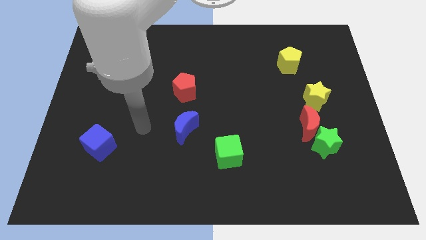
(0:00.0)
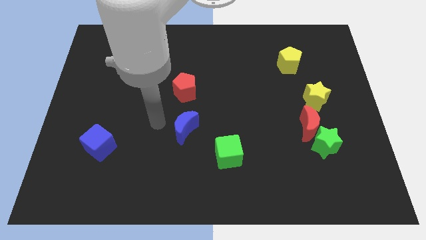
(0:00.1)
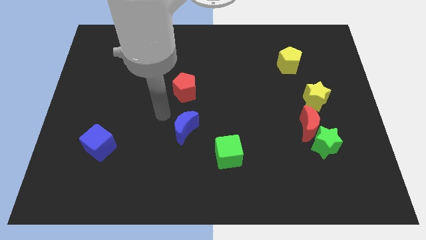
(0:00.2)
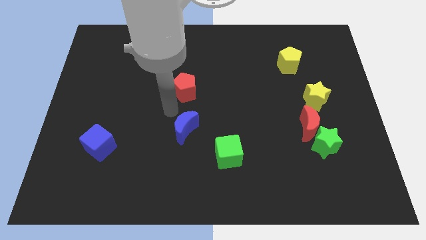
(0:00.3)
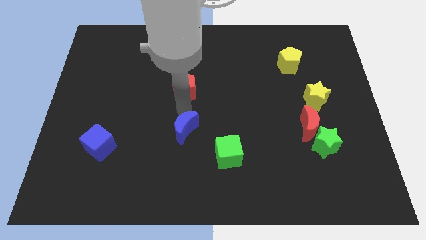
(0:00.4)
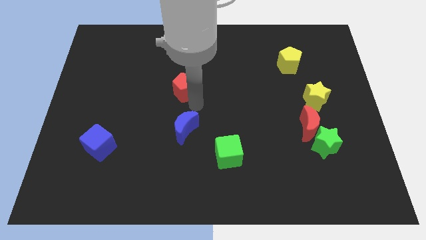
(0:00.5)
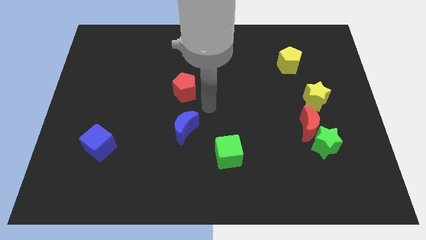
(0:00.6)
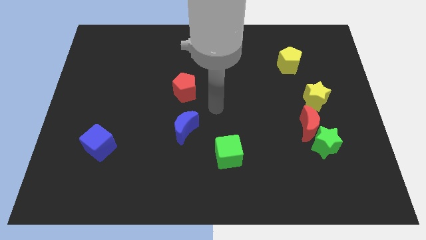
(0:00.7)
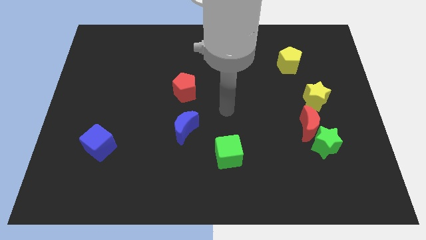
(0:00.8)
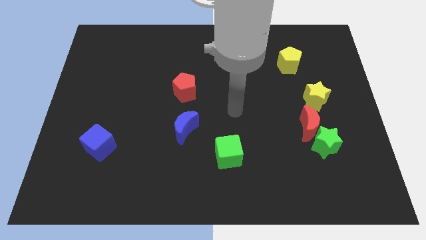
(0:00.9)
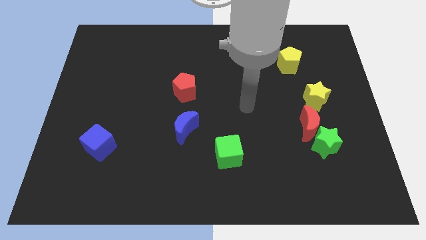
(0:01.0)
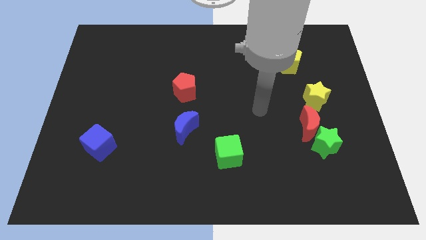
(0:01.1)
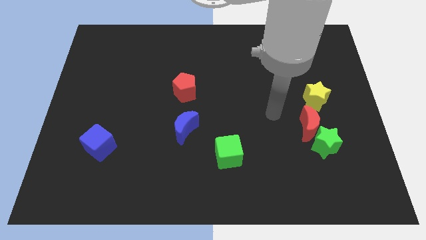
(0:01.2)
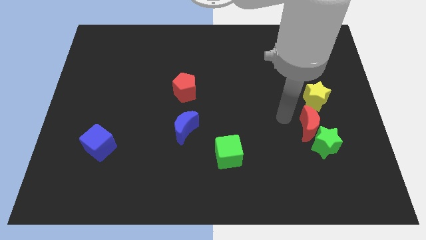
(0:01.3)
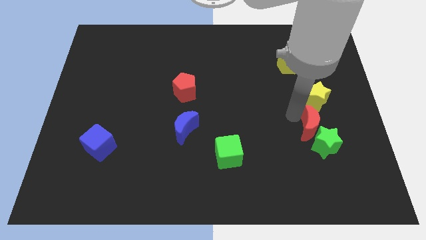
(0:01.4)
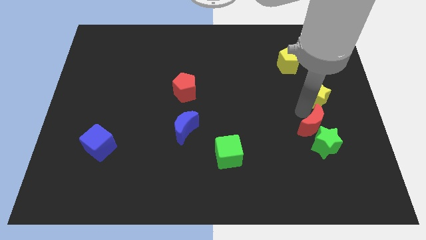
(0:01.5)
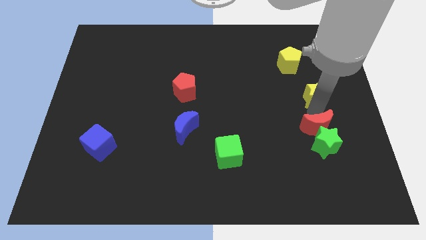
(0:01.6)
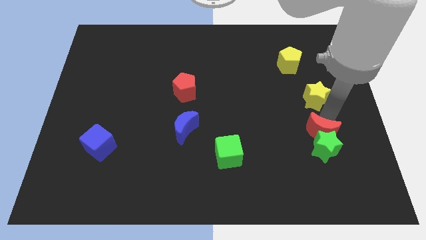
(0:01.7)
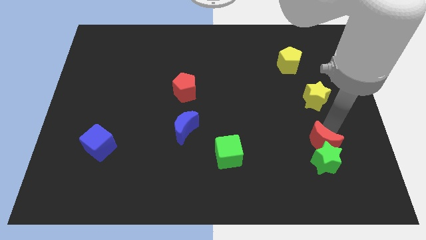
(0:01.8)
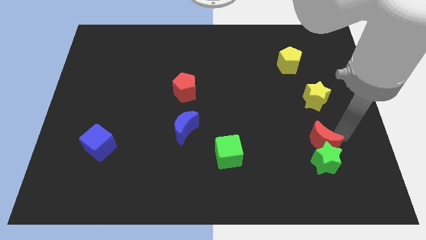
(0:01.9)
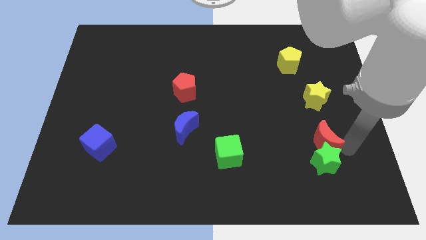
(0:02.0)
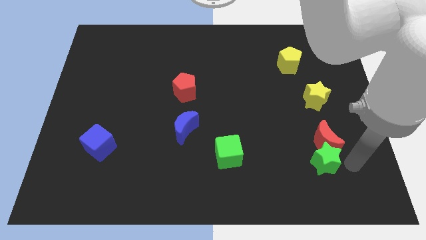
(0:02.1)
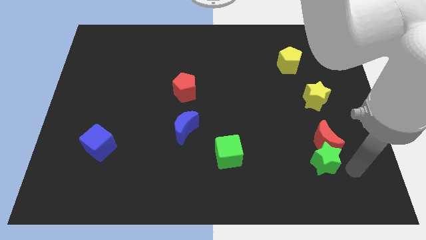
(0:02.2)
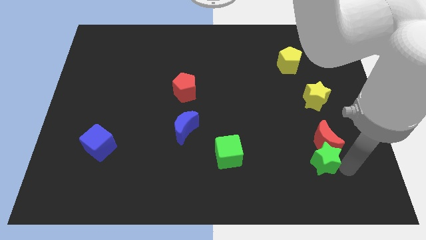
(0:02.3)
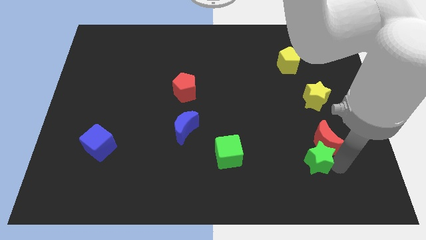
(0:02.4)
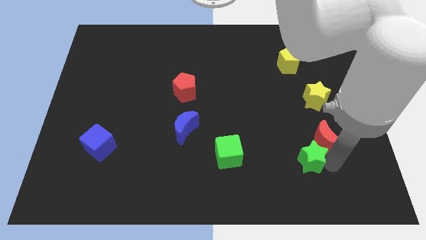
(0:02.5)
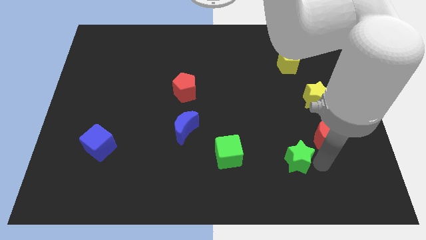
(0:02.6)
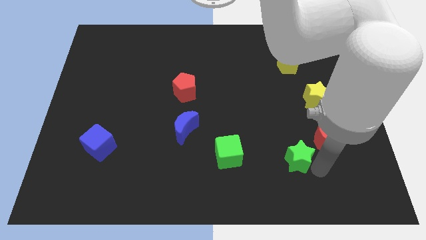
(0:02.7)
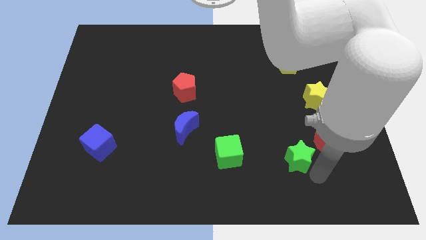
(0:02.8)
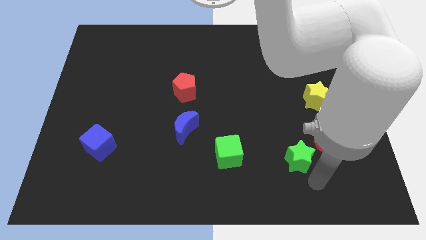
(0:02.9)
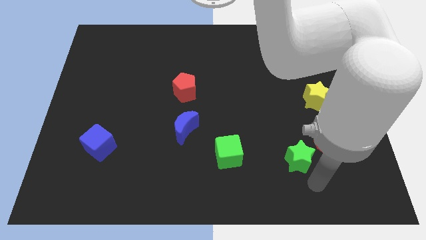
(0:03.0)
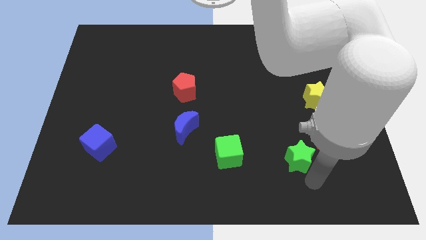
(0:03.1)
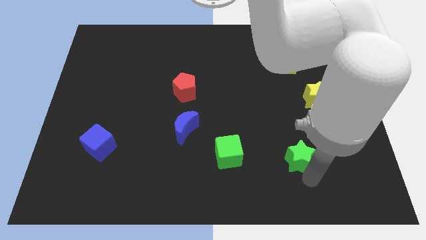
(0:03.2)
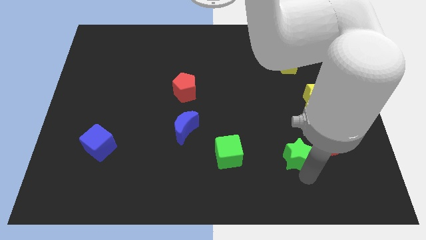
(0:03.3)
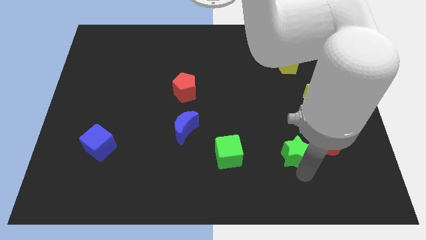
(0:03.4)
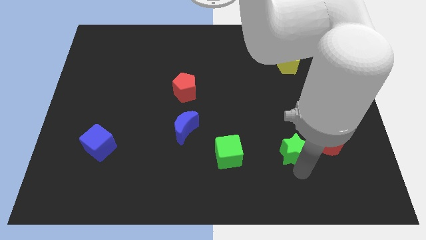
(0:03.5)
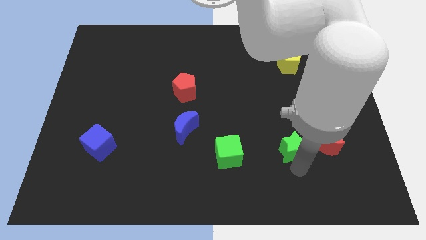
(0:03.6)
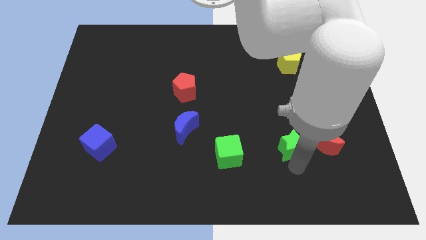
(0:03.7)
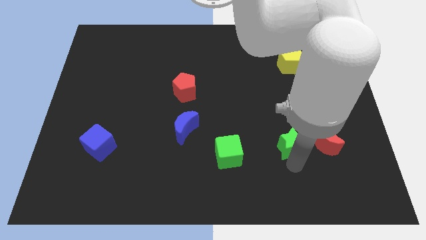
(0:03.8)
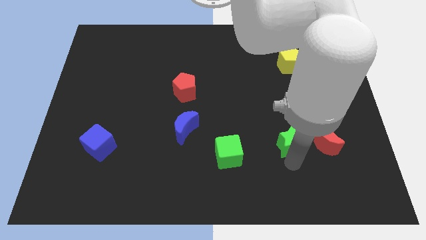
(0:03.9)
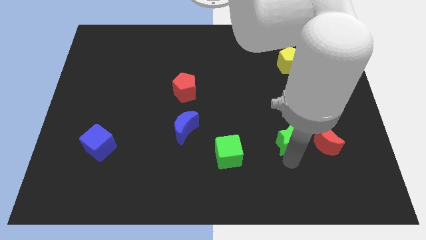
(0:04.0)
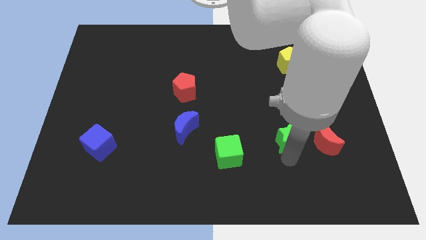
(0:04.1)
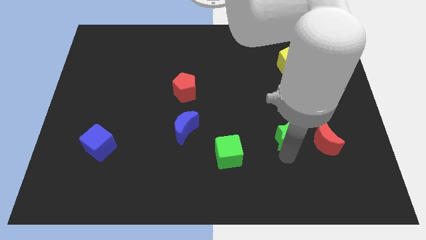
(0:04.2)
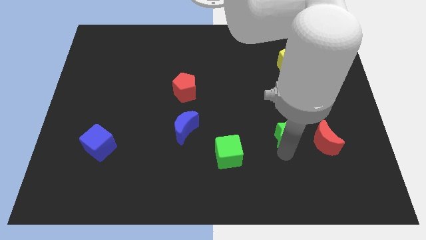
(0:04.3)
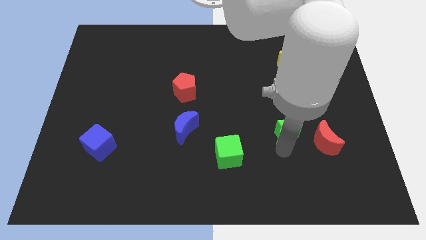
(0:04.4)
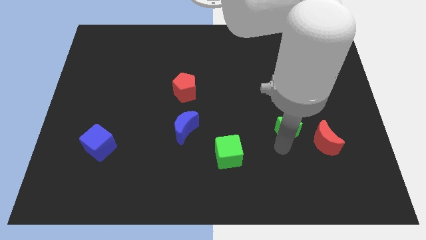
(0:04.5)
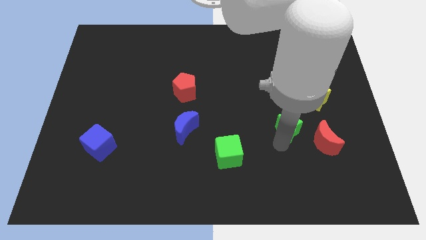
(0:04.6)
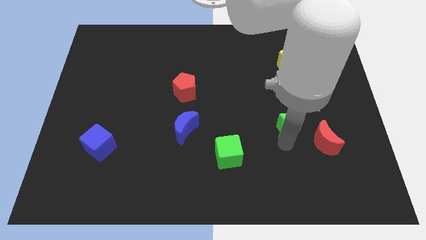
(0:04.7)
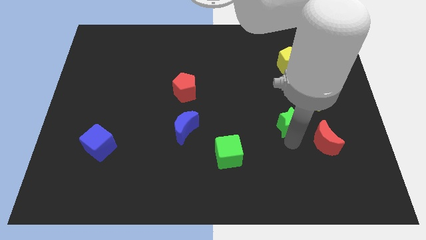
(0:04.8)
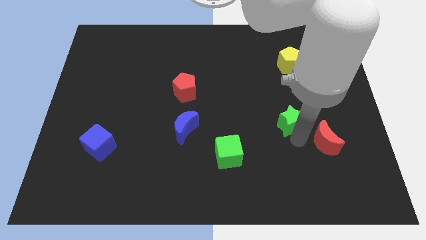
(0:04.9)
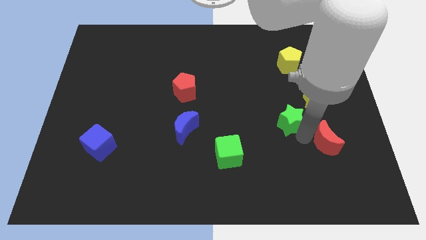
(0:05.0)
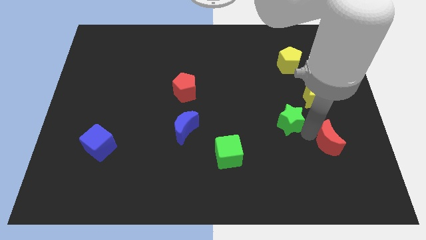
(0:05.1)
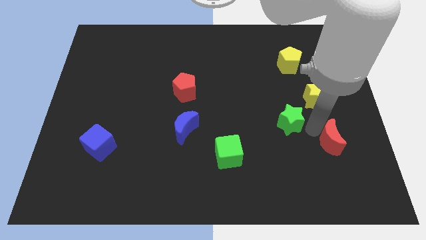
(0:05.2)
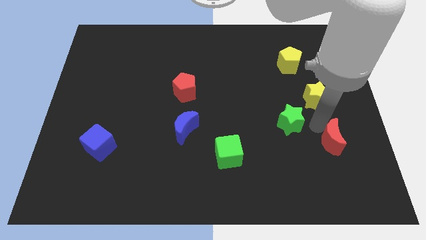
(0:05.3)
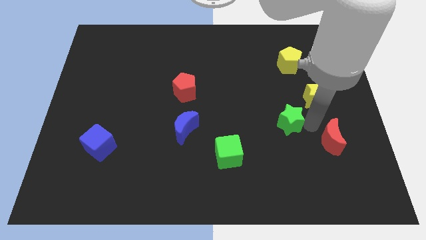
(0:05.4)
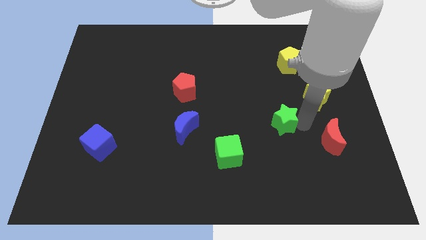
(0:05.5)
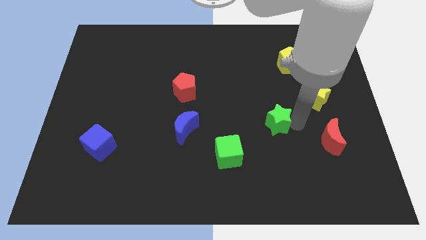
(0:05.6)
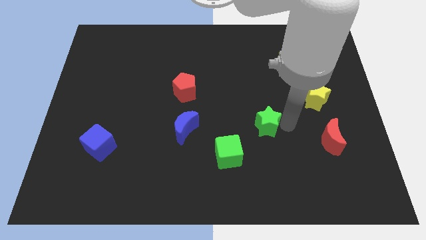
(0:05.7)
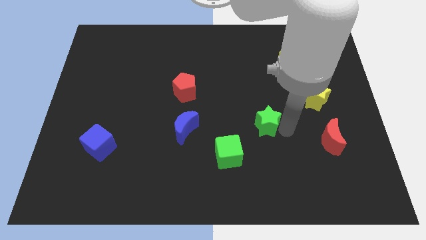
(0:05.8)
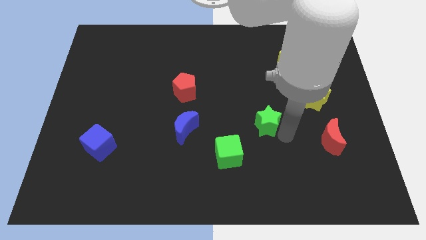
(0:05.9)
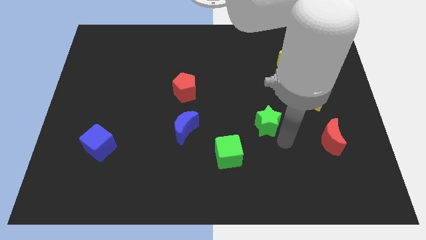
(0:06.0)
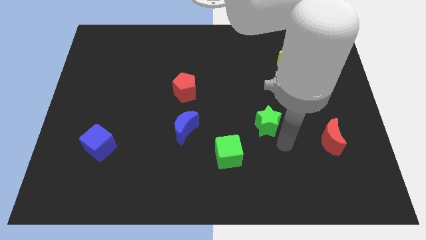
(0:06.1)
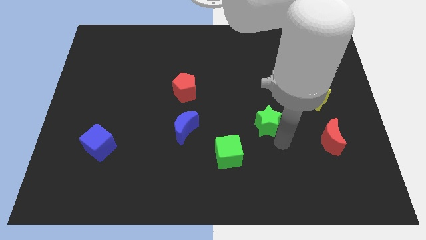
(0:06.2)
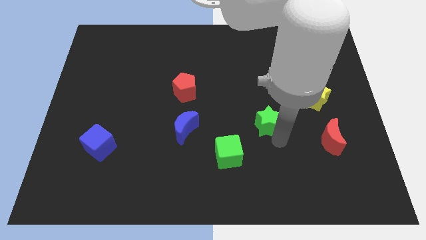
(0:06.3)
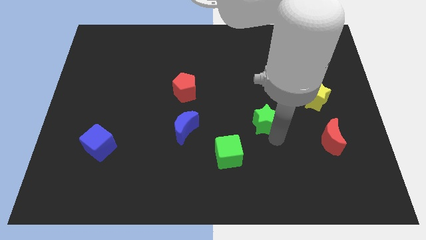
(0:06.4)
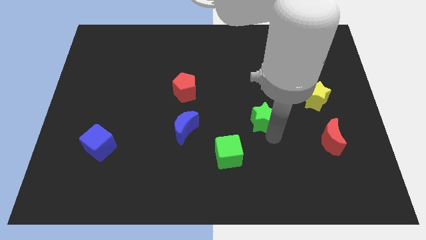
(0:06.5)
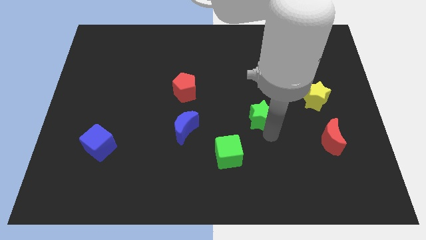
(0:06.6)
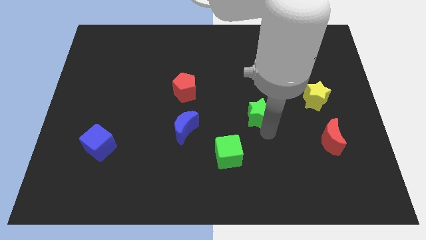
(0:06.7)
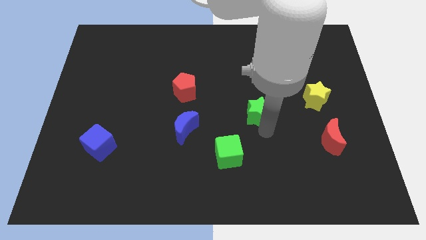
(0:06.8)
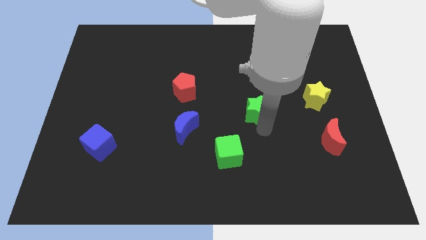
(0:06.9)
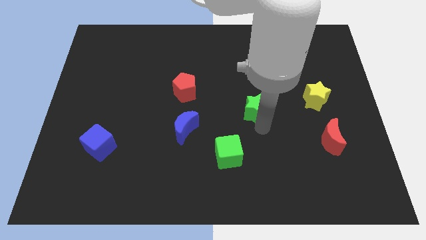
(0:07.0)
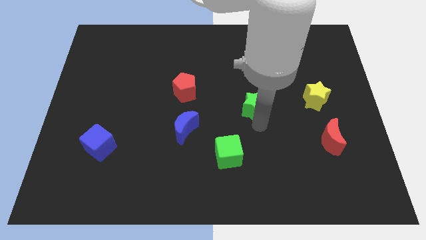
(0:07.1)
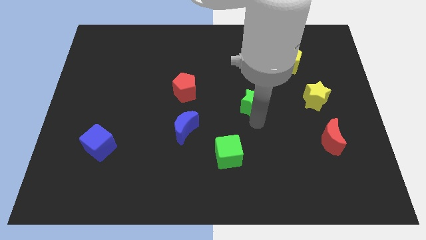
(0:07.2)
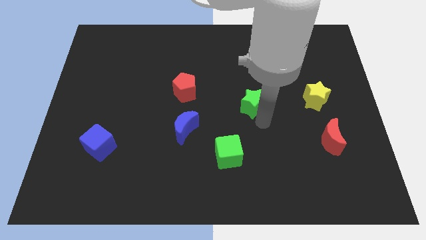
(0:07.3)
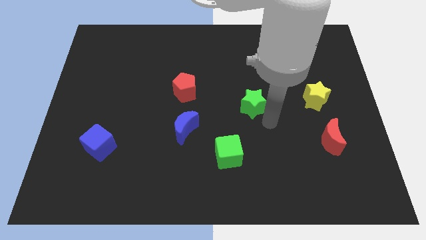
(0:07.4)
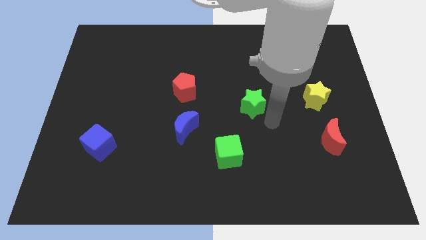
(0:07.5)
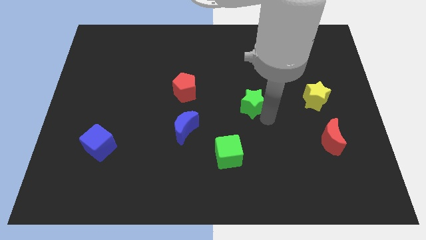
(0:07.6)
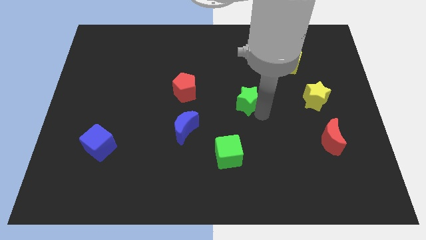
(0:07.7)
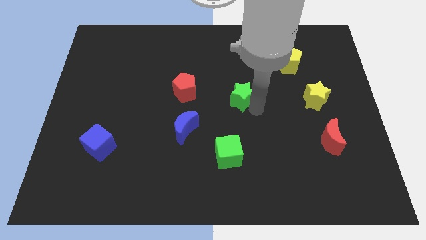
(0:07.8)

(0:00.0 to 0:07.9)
push the green star upwards and left
